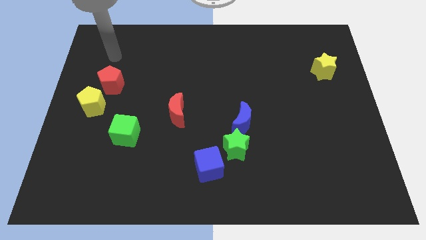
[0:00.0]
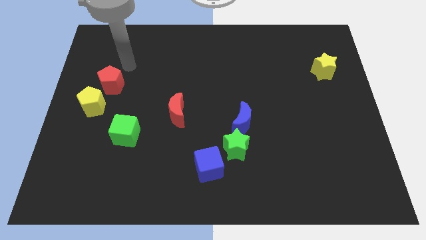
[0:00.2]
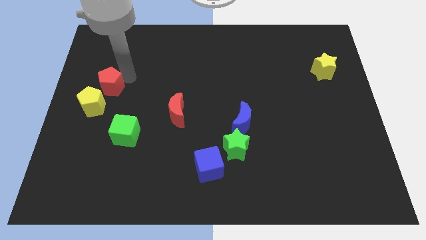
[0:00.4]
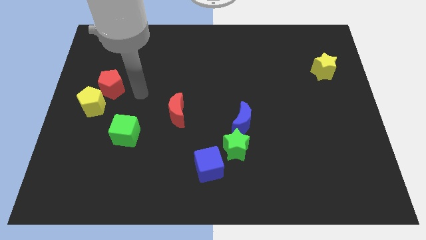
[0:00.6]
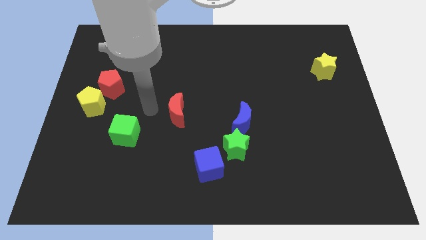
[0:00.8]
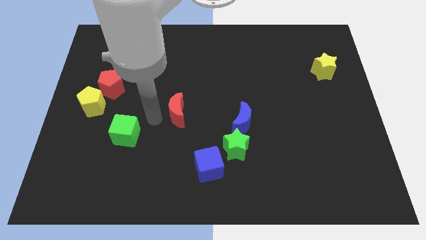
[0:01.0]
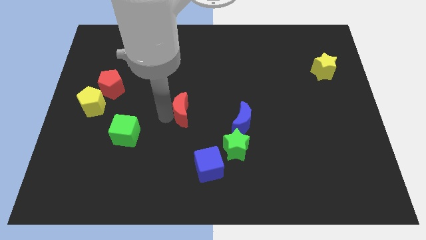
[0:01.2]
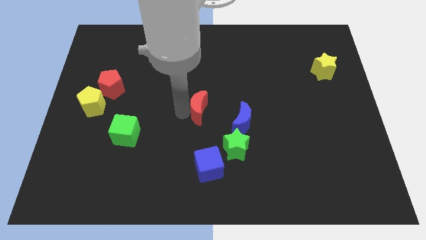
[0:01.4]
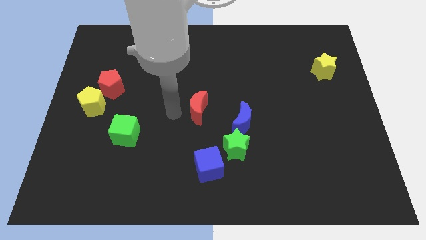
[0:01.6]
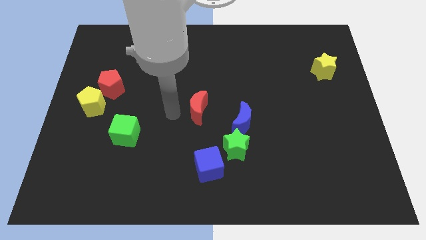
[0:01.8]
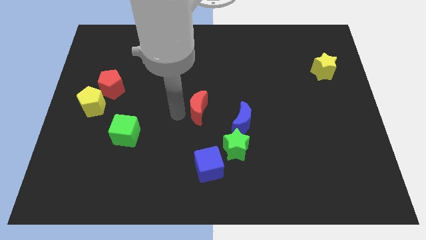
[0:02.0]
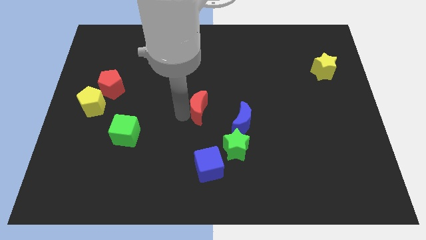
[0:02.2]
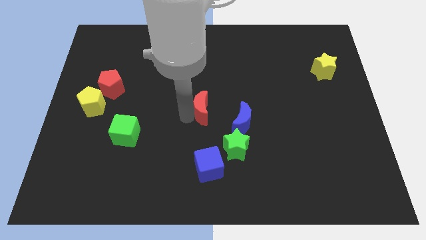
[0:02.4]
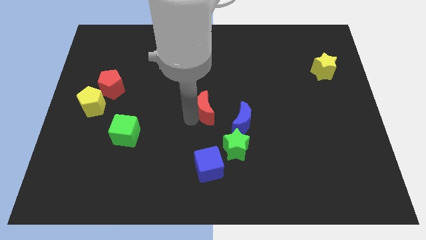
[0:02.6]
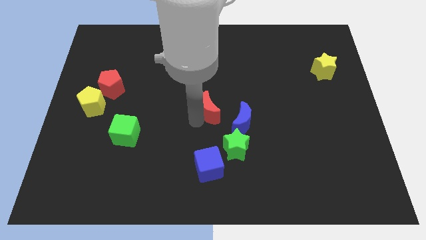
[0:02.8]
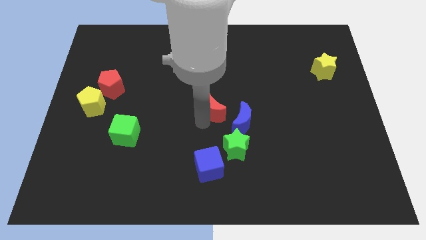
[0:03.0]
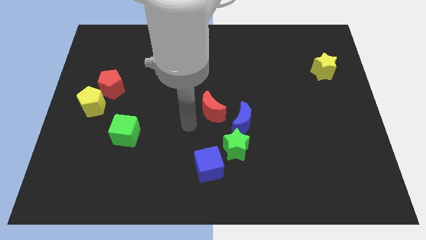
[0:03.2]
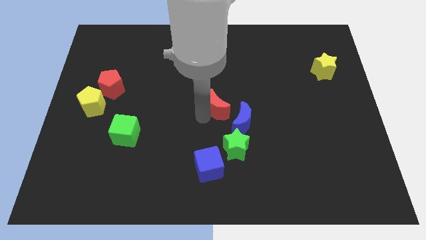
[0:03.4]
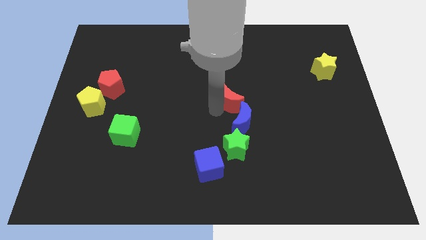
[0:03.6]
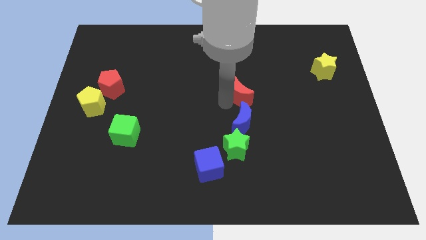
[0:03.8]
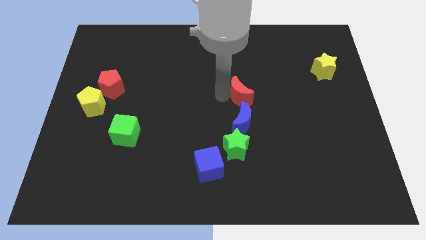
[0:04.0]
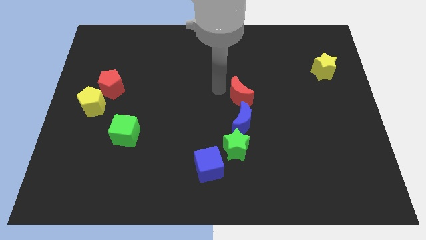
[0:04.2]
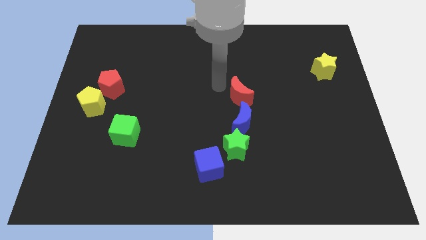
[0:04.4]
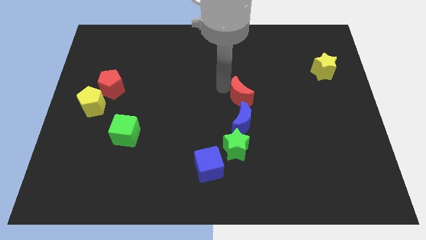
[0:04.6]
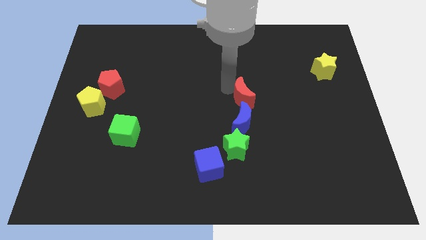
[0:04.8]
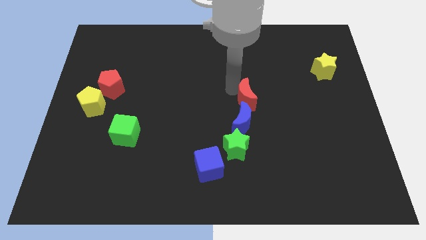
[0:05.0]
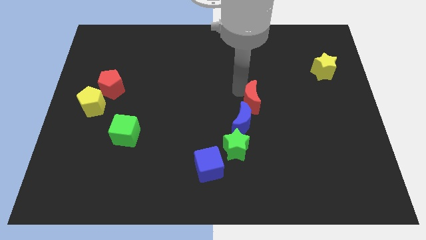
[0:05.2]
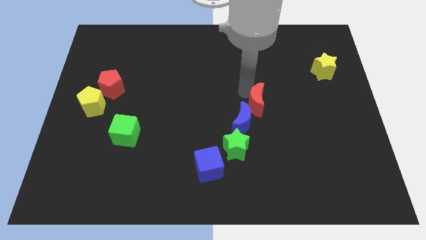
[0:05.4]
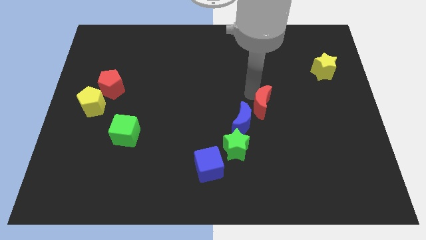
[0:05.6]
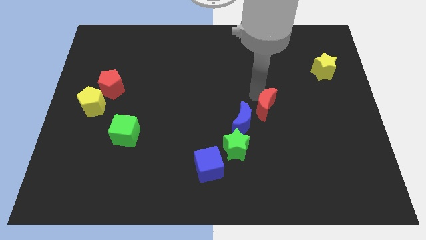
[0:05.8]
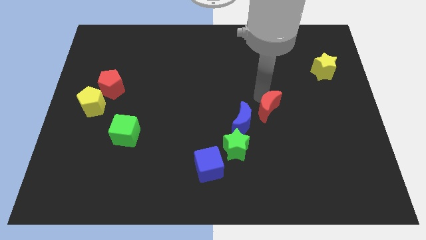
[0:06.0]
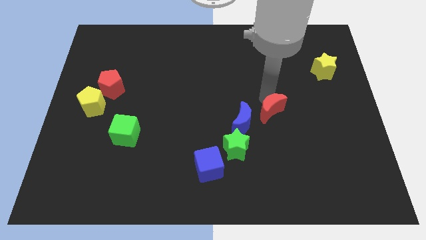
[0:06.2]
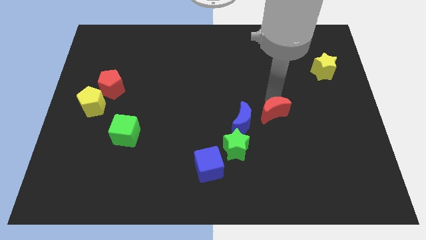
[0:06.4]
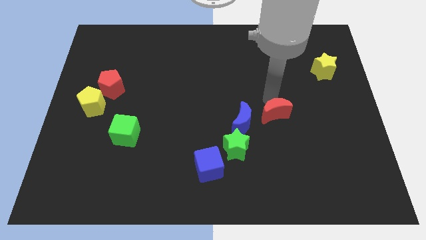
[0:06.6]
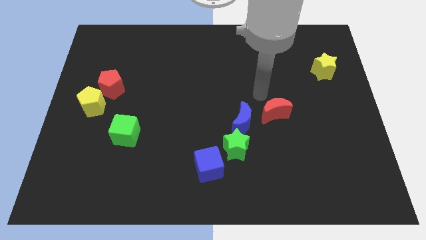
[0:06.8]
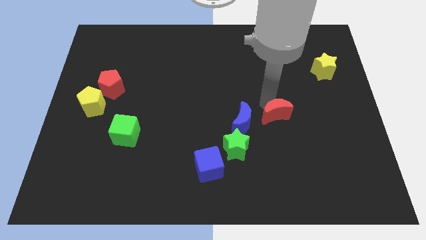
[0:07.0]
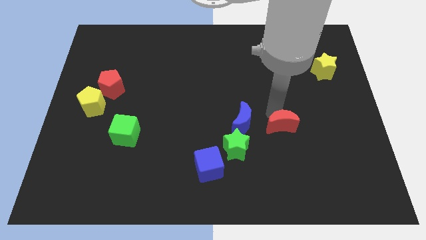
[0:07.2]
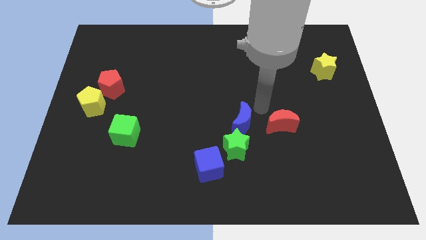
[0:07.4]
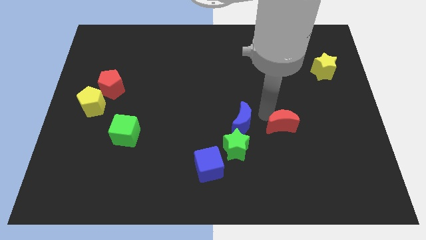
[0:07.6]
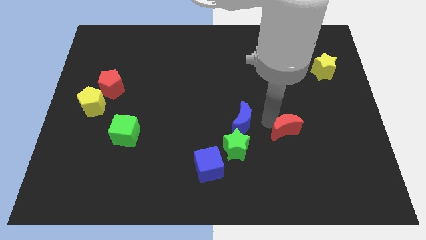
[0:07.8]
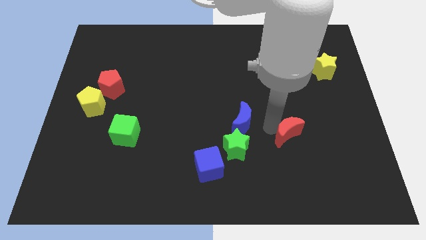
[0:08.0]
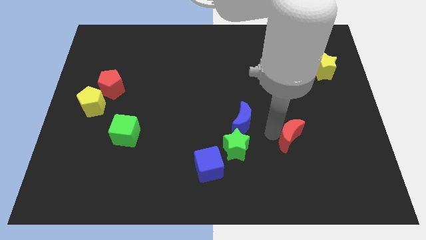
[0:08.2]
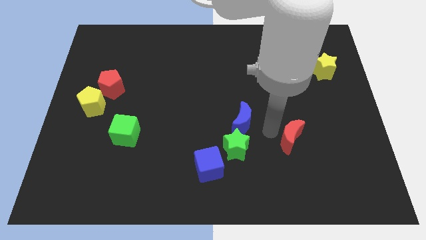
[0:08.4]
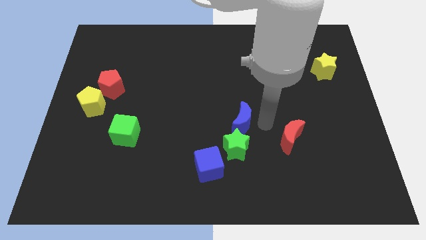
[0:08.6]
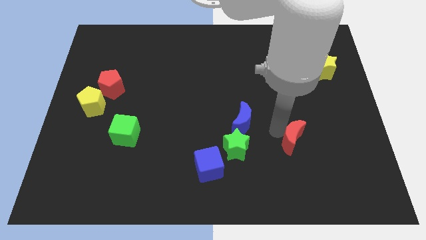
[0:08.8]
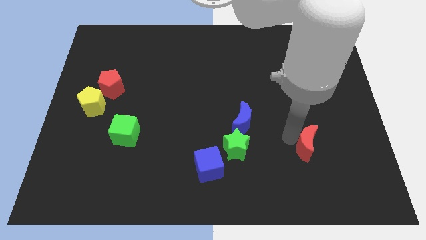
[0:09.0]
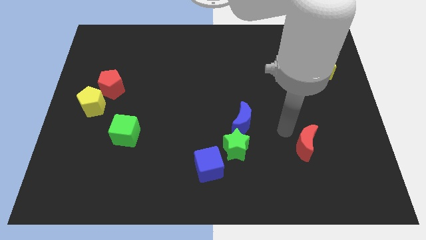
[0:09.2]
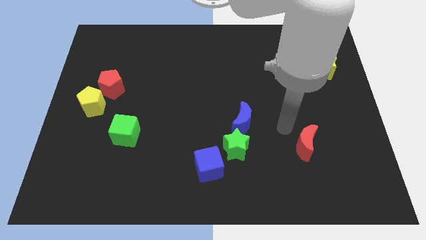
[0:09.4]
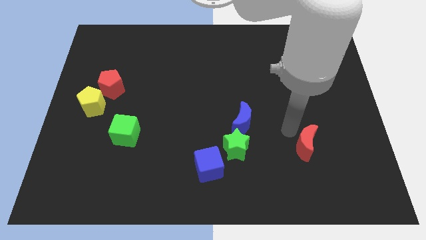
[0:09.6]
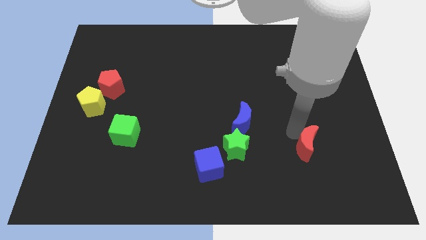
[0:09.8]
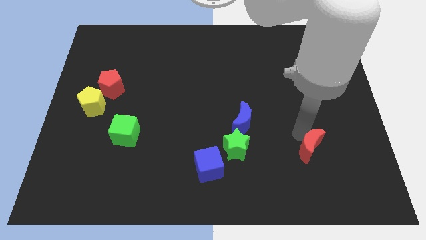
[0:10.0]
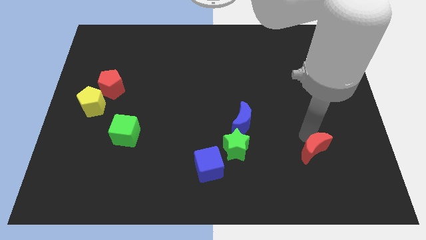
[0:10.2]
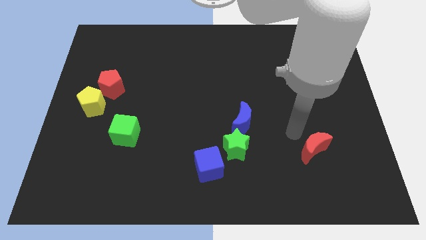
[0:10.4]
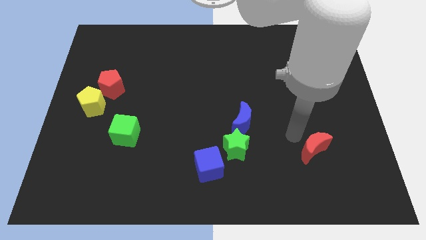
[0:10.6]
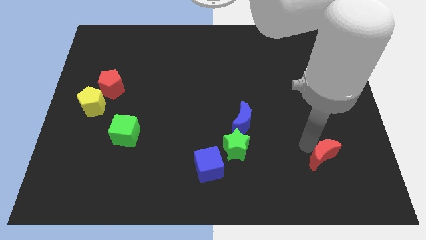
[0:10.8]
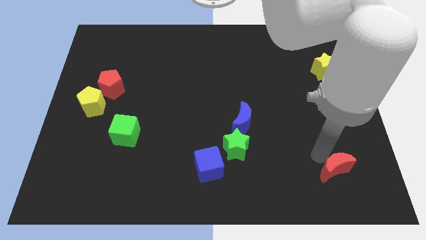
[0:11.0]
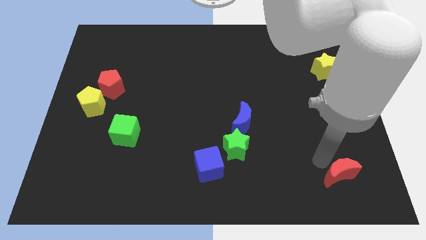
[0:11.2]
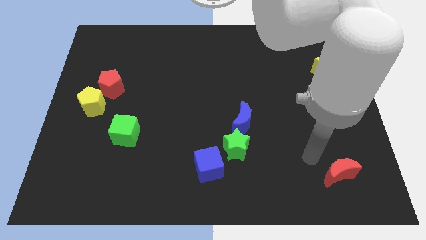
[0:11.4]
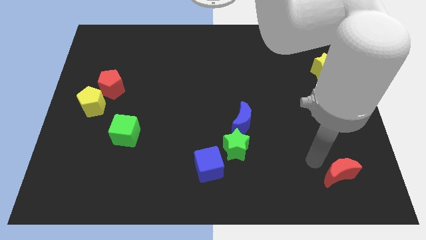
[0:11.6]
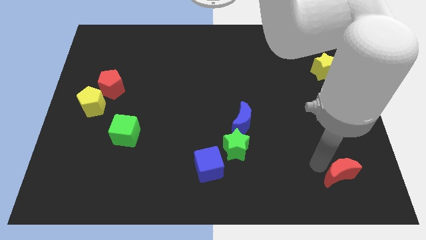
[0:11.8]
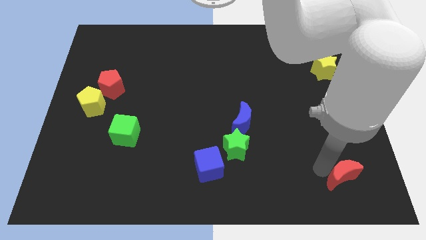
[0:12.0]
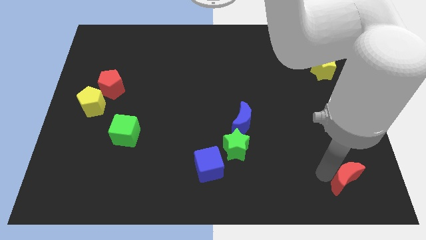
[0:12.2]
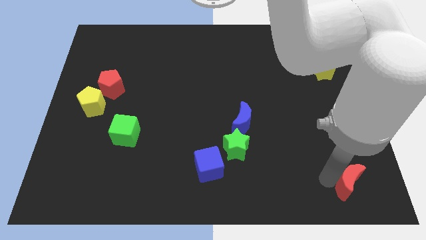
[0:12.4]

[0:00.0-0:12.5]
push the red moon to the bottom right
